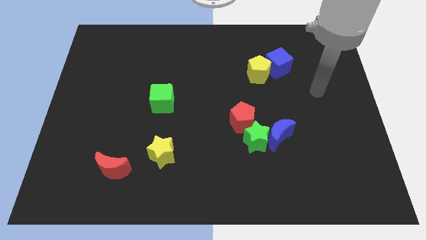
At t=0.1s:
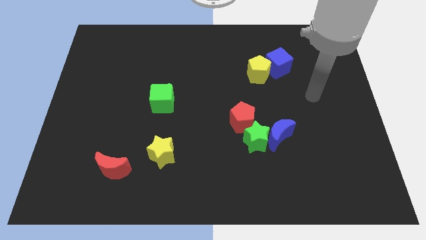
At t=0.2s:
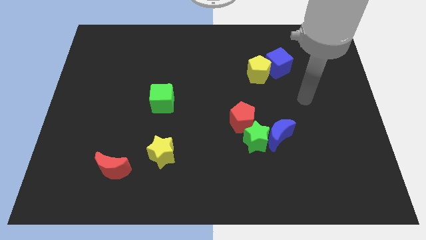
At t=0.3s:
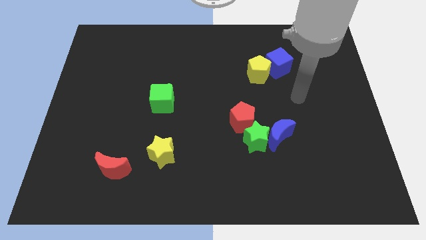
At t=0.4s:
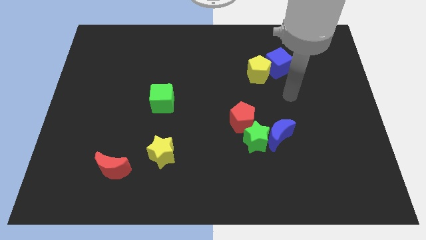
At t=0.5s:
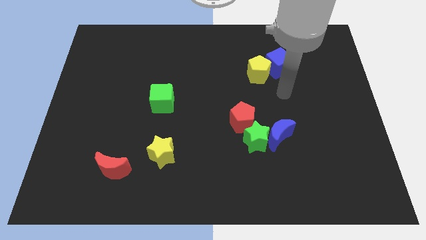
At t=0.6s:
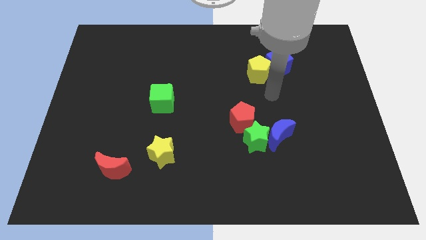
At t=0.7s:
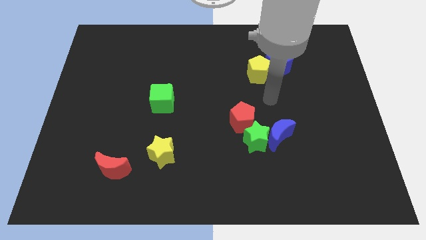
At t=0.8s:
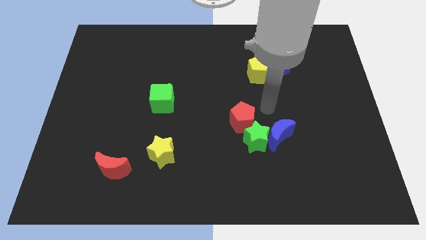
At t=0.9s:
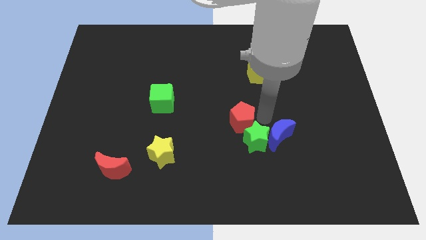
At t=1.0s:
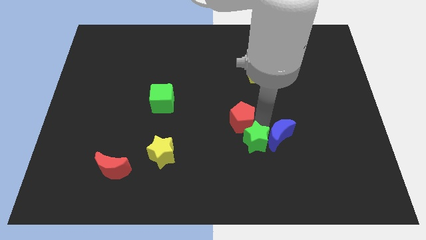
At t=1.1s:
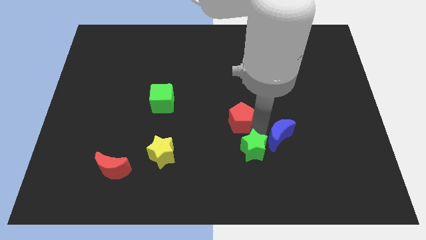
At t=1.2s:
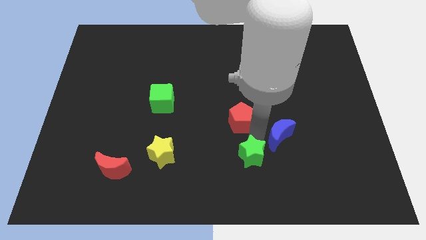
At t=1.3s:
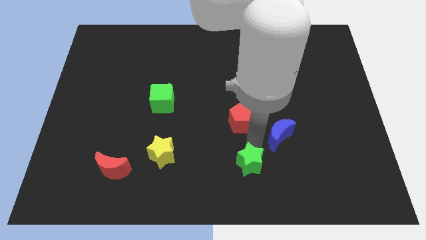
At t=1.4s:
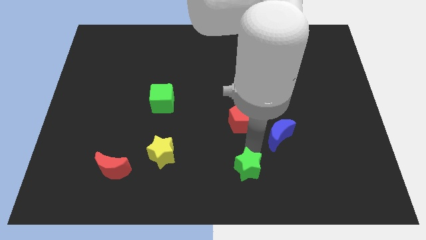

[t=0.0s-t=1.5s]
move the green star away from the blue moon and red pentagon

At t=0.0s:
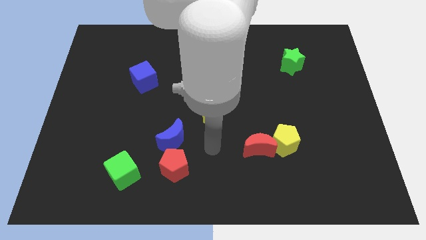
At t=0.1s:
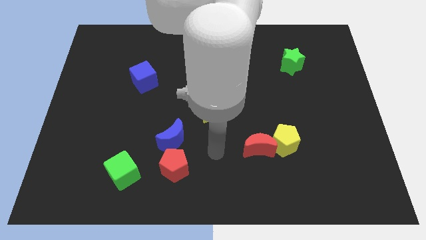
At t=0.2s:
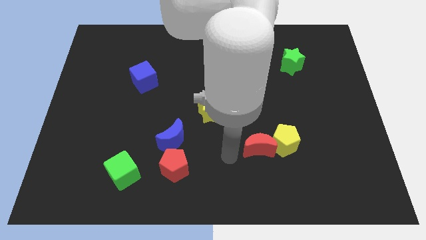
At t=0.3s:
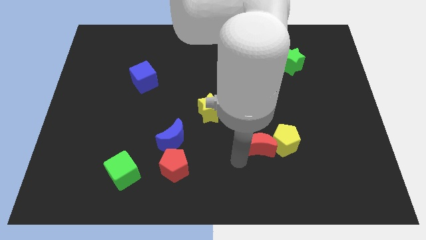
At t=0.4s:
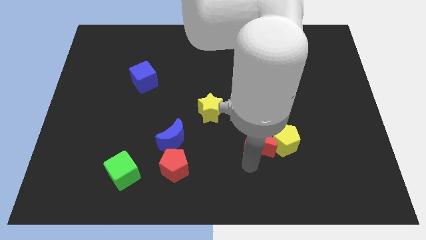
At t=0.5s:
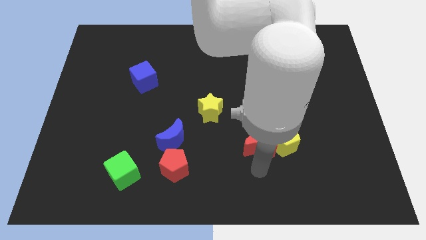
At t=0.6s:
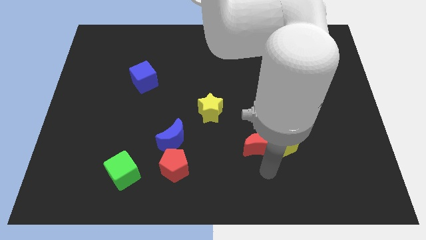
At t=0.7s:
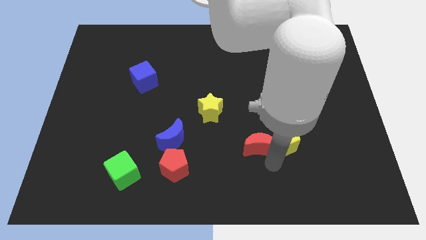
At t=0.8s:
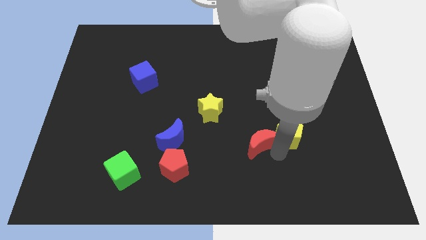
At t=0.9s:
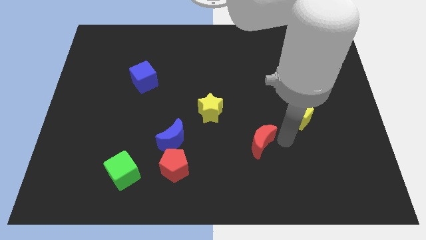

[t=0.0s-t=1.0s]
pull the red moon apart from the yellow pentagon

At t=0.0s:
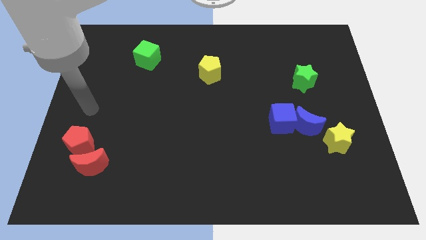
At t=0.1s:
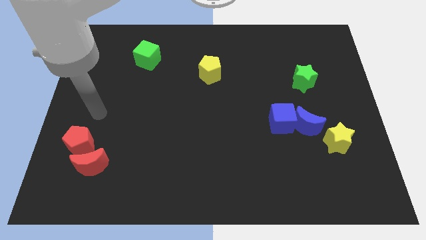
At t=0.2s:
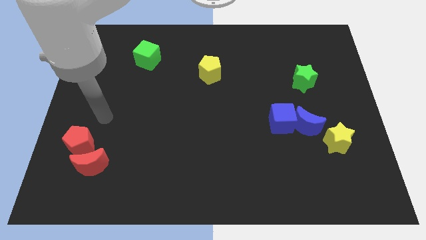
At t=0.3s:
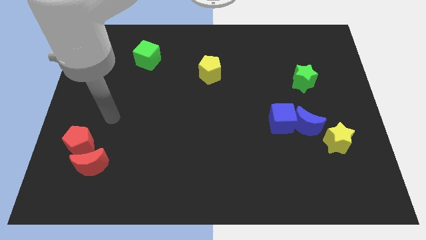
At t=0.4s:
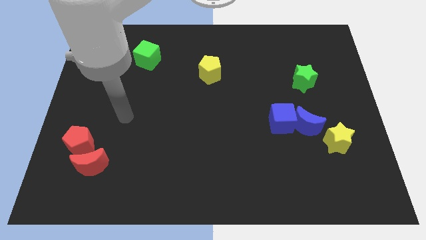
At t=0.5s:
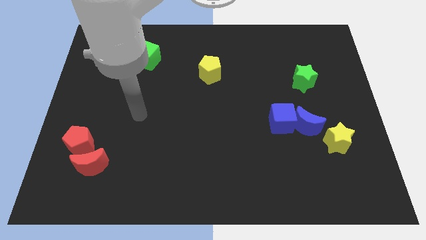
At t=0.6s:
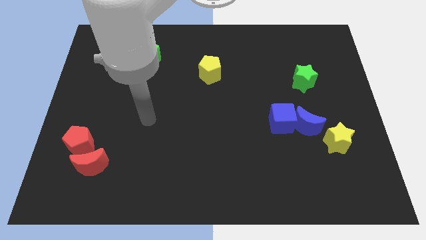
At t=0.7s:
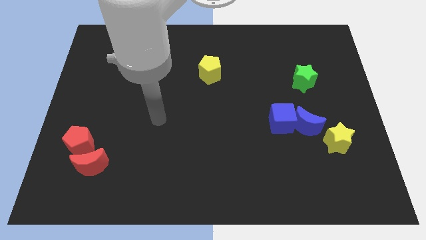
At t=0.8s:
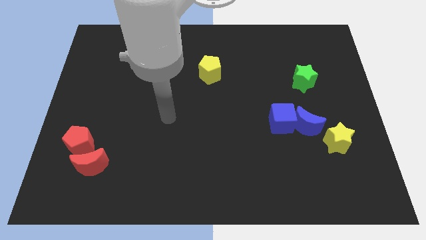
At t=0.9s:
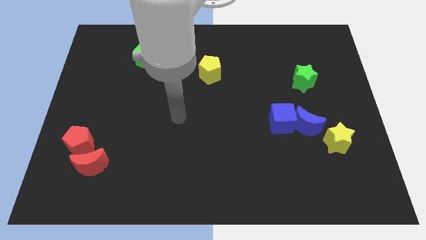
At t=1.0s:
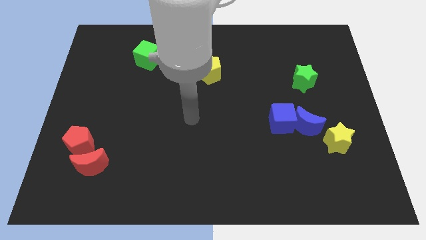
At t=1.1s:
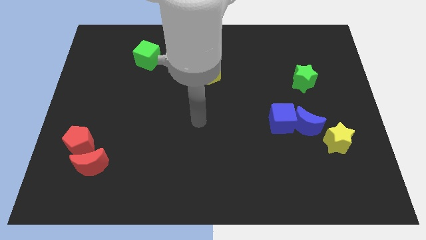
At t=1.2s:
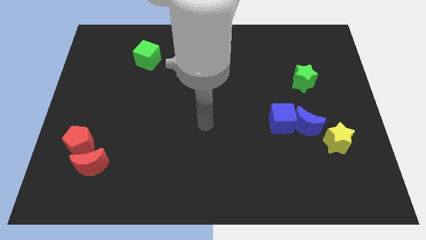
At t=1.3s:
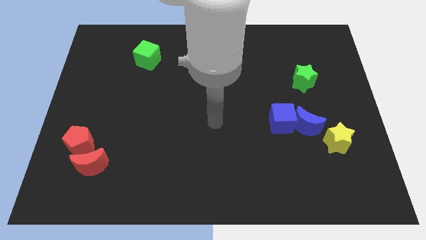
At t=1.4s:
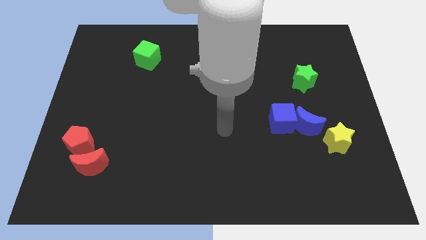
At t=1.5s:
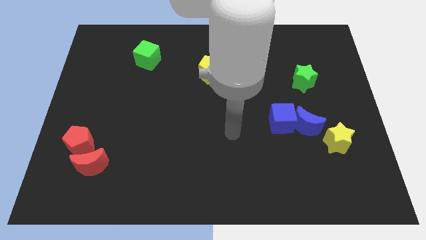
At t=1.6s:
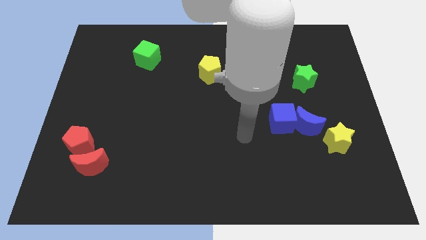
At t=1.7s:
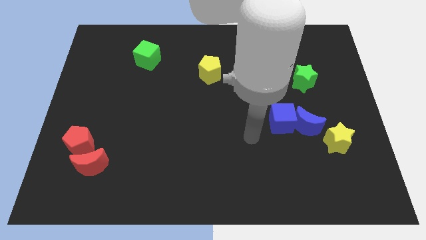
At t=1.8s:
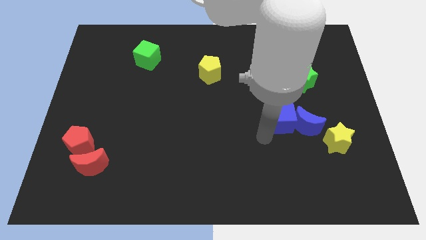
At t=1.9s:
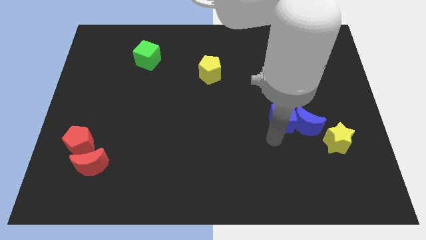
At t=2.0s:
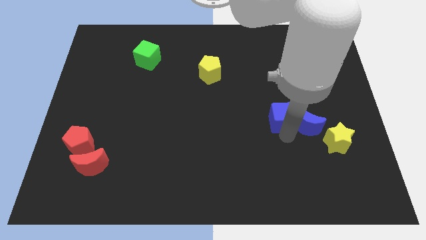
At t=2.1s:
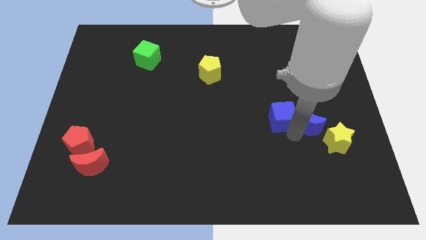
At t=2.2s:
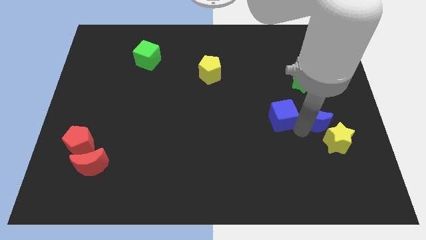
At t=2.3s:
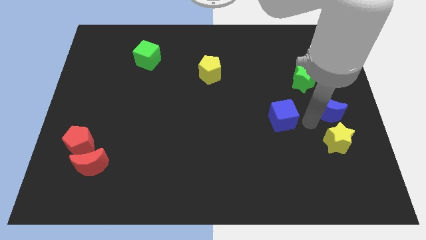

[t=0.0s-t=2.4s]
move the blue cube away from the blue moon

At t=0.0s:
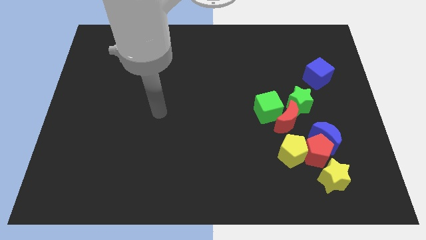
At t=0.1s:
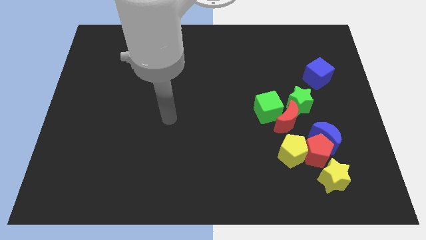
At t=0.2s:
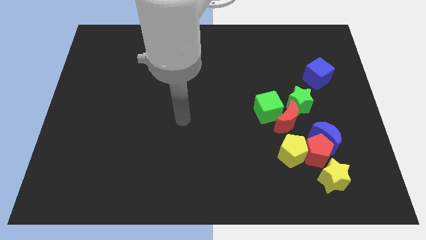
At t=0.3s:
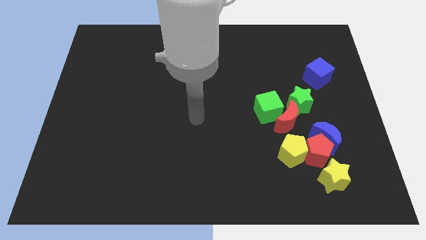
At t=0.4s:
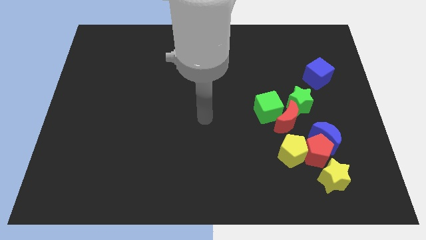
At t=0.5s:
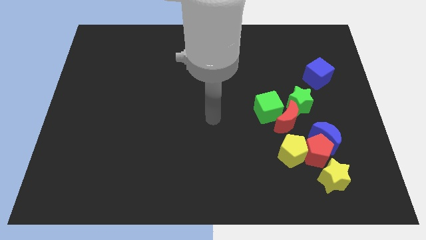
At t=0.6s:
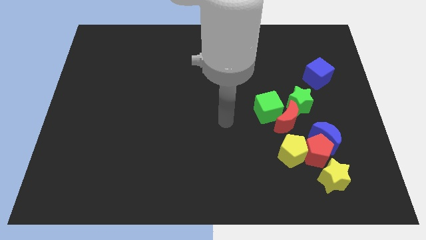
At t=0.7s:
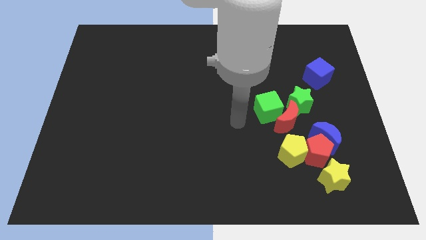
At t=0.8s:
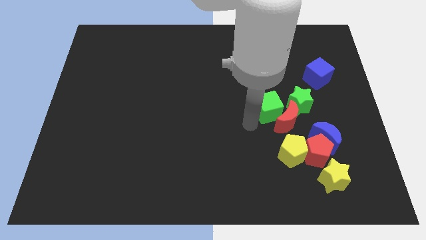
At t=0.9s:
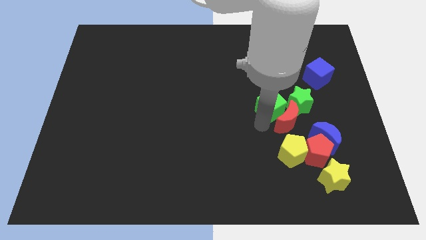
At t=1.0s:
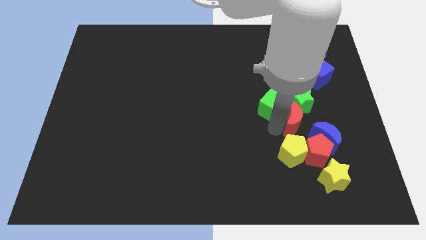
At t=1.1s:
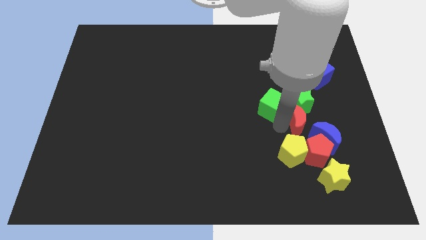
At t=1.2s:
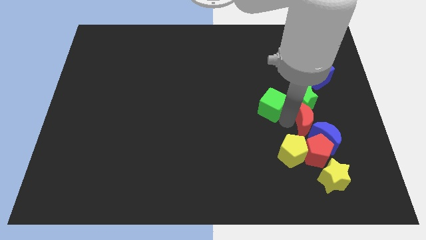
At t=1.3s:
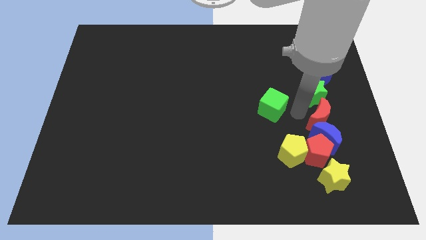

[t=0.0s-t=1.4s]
move the green cube away from the red moon and green star

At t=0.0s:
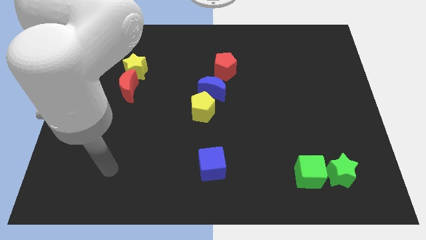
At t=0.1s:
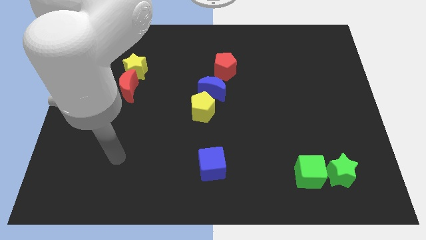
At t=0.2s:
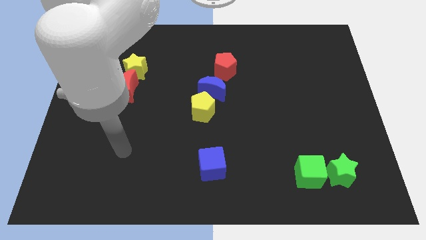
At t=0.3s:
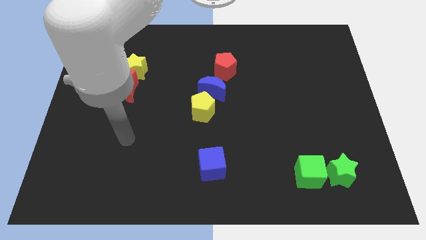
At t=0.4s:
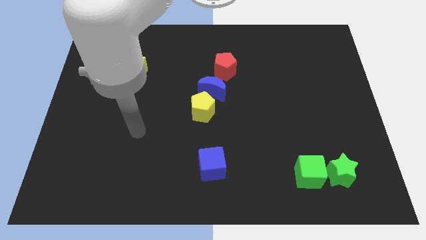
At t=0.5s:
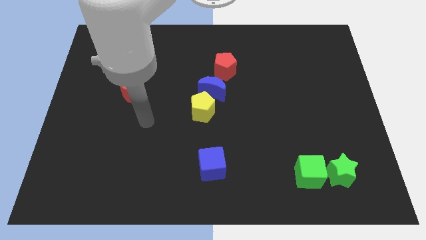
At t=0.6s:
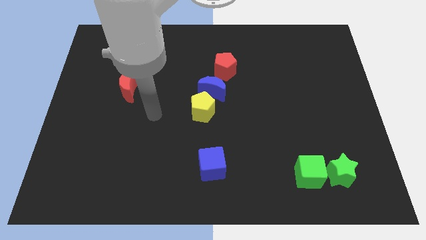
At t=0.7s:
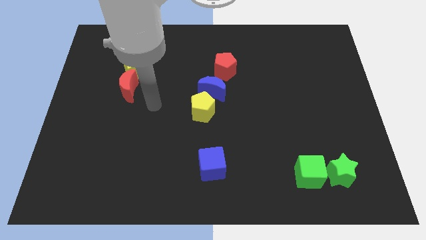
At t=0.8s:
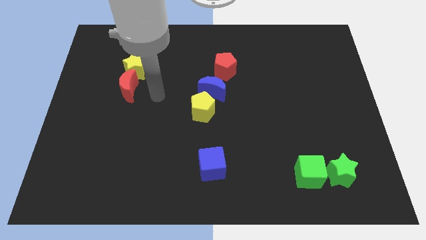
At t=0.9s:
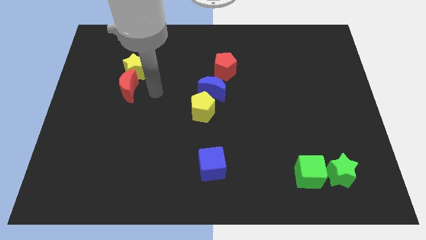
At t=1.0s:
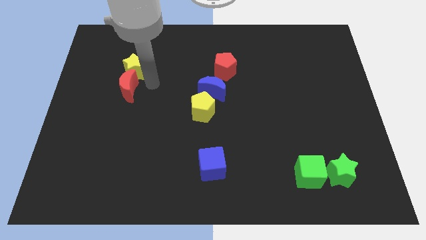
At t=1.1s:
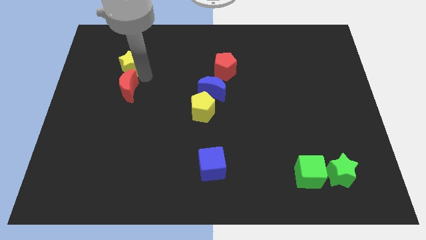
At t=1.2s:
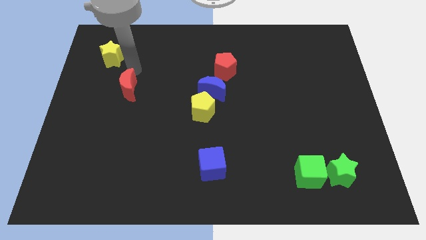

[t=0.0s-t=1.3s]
separate the red moon from the yellow star

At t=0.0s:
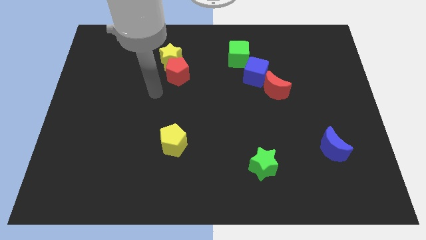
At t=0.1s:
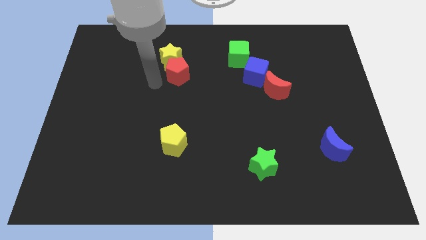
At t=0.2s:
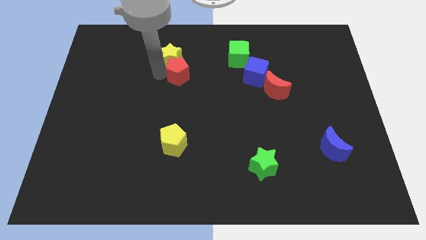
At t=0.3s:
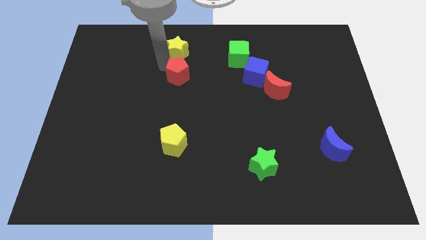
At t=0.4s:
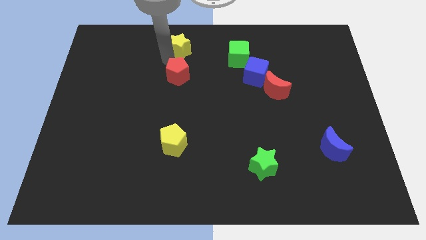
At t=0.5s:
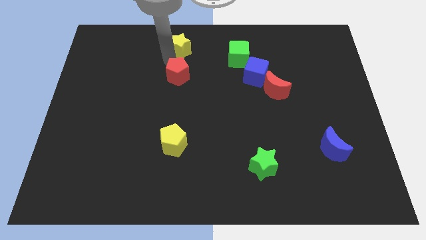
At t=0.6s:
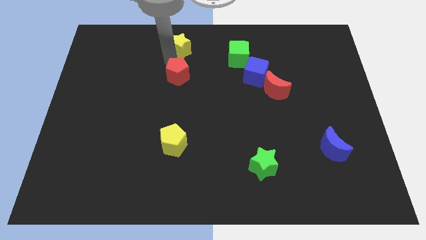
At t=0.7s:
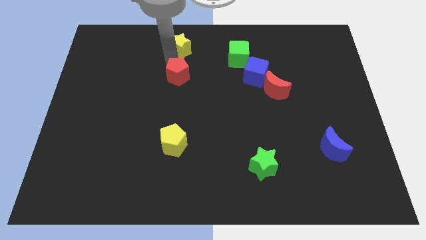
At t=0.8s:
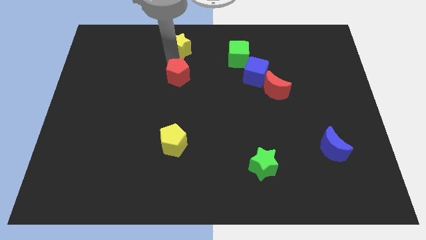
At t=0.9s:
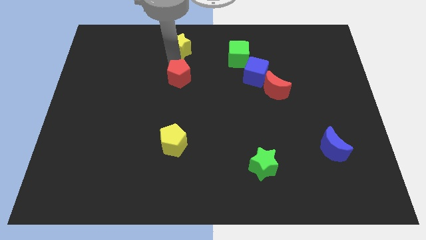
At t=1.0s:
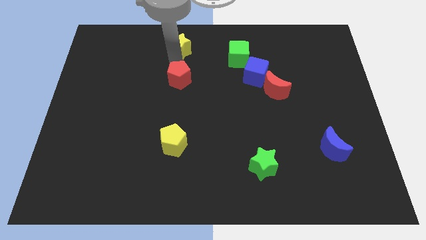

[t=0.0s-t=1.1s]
move the red pentagon away from the yellow star

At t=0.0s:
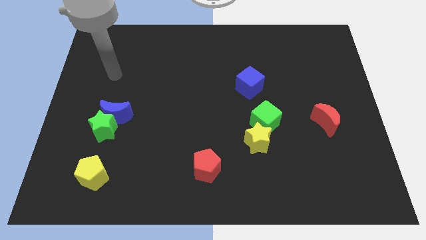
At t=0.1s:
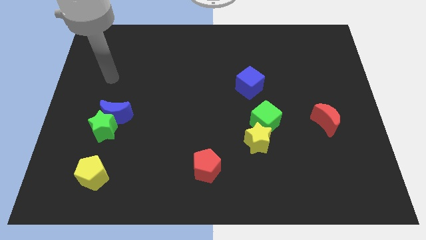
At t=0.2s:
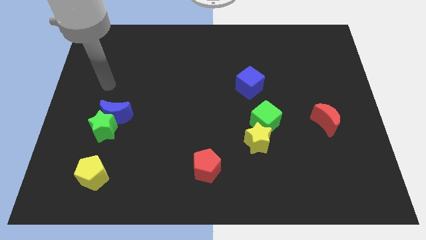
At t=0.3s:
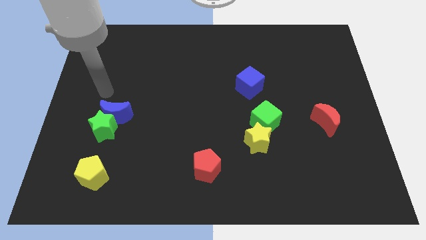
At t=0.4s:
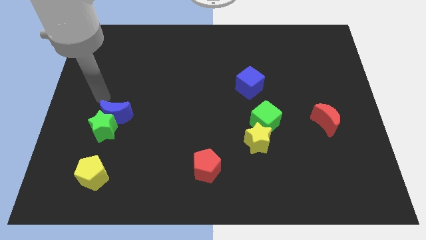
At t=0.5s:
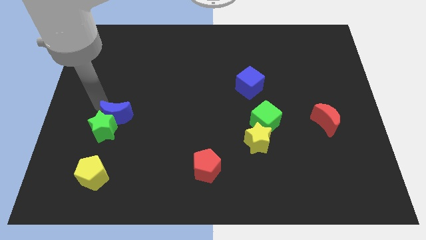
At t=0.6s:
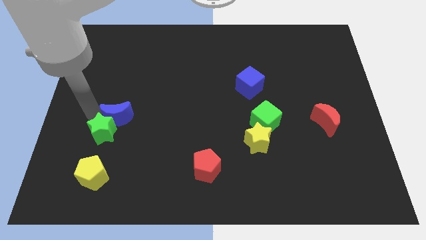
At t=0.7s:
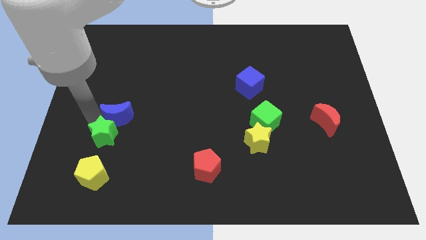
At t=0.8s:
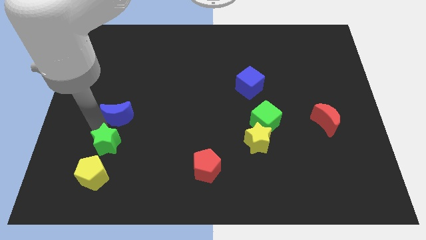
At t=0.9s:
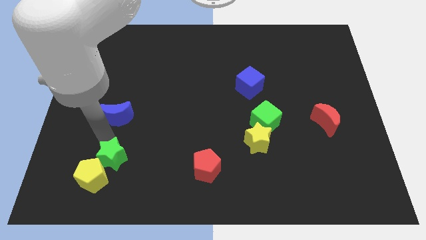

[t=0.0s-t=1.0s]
separate the blue moon from the green star
